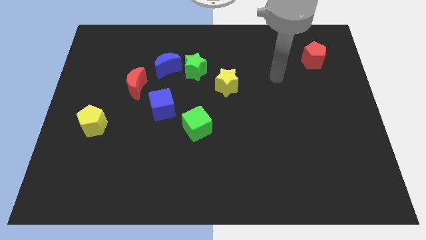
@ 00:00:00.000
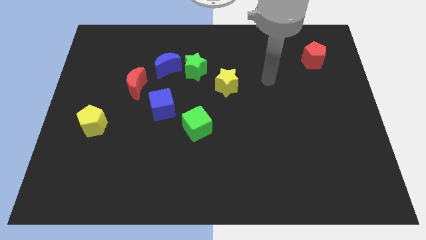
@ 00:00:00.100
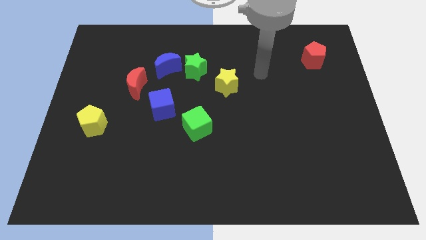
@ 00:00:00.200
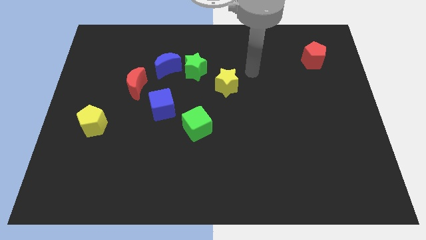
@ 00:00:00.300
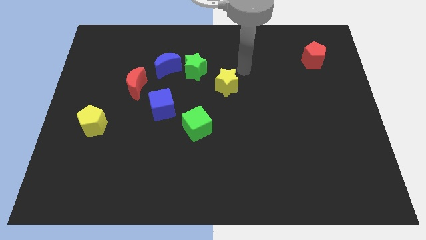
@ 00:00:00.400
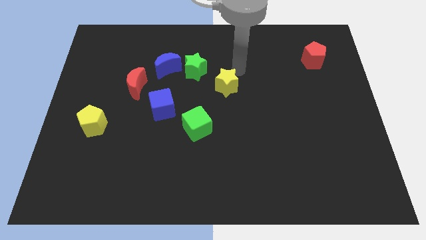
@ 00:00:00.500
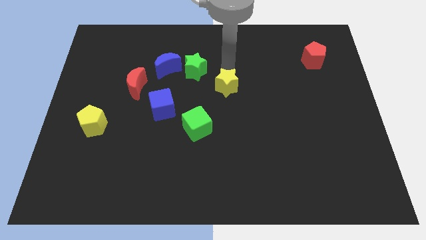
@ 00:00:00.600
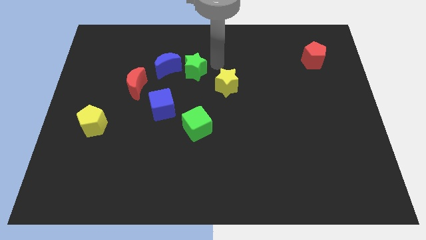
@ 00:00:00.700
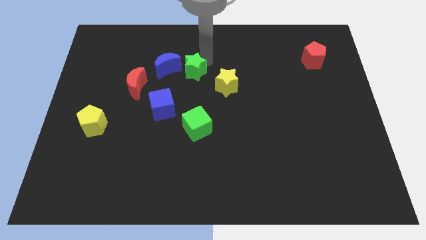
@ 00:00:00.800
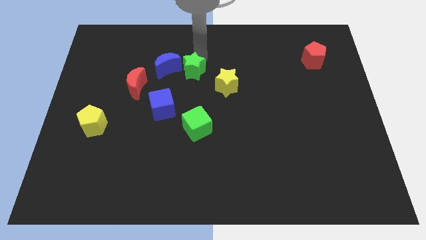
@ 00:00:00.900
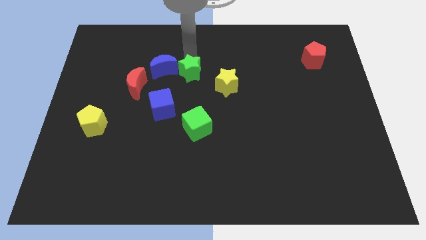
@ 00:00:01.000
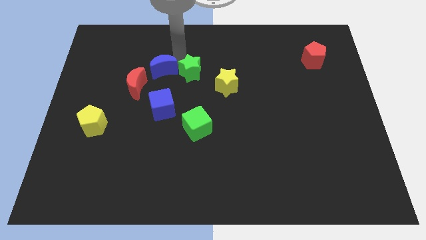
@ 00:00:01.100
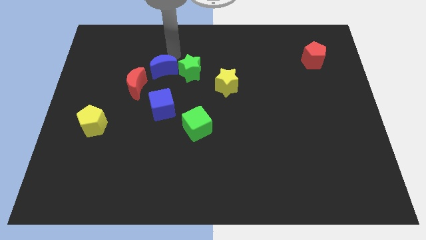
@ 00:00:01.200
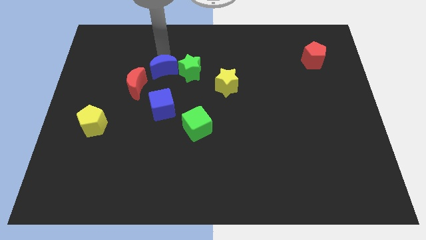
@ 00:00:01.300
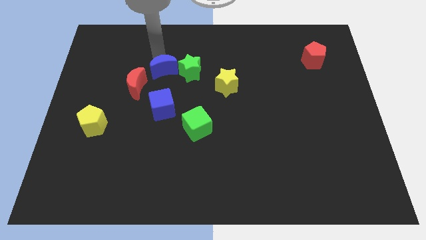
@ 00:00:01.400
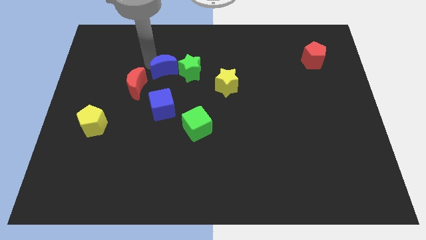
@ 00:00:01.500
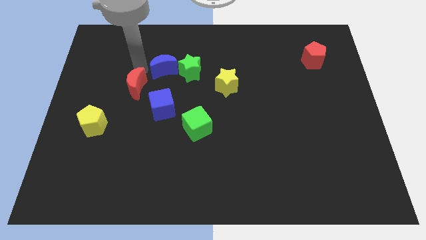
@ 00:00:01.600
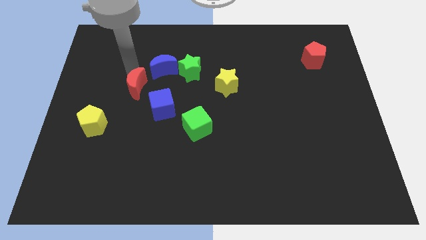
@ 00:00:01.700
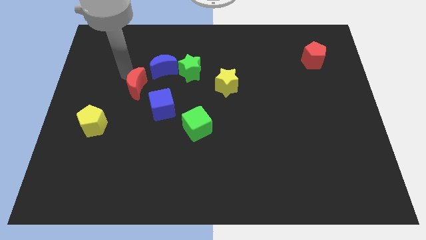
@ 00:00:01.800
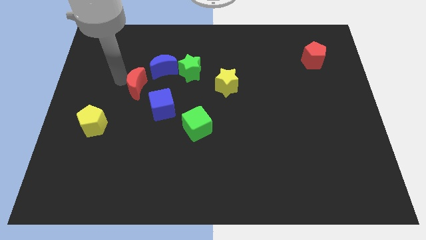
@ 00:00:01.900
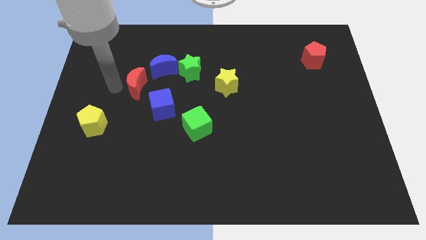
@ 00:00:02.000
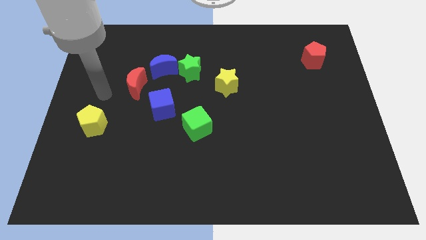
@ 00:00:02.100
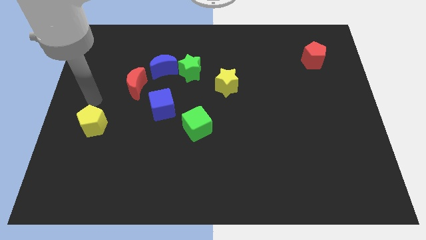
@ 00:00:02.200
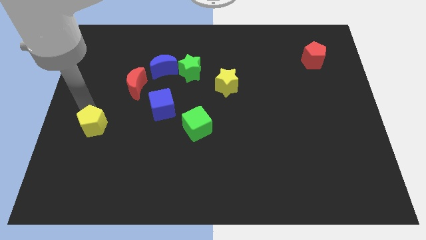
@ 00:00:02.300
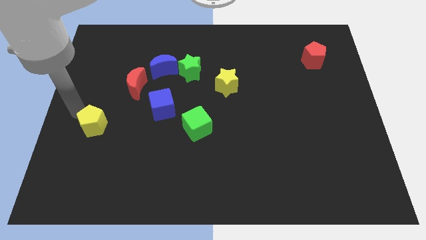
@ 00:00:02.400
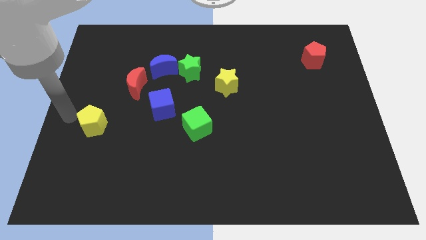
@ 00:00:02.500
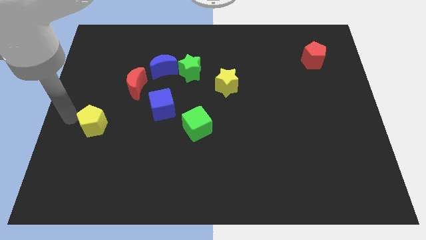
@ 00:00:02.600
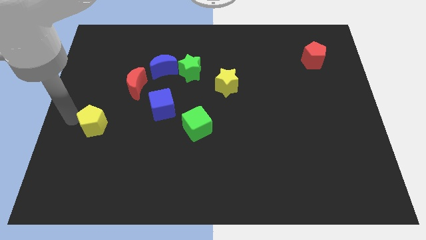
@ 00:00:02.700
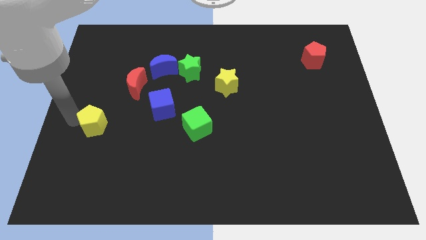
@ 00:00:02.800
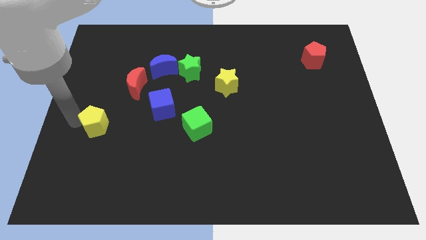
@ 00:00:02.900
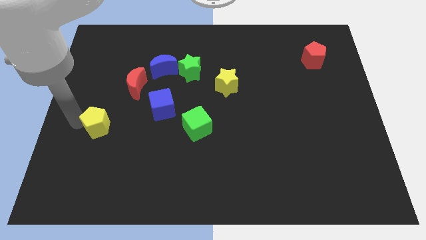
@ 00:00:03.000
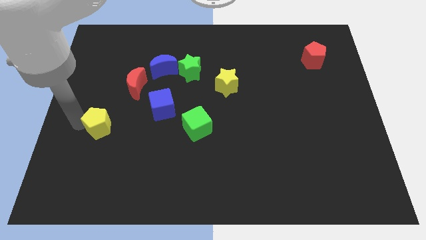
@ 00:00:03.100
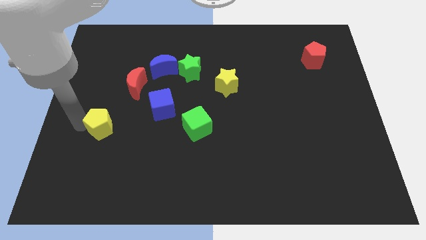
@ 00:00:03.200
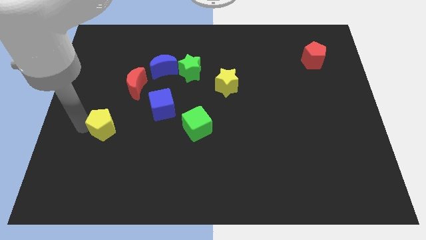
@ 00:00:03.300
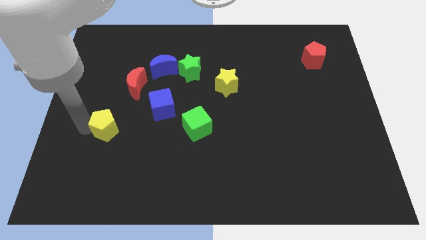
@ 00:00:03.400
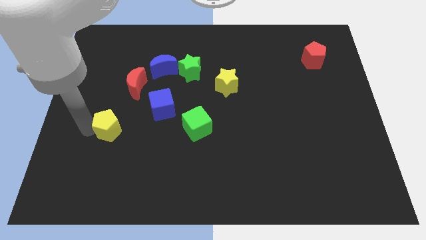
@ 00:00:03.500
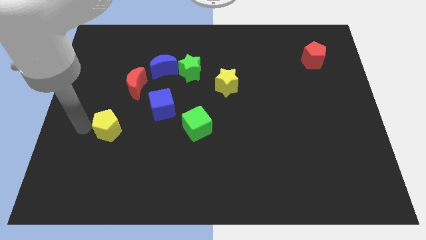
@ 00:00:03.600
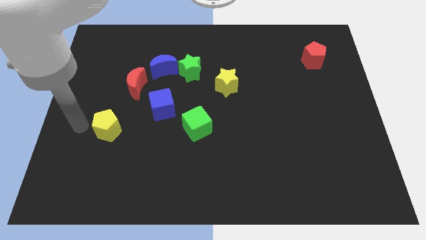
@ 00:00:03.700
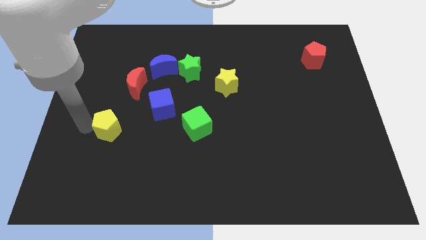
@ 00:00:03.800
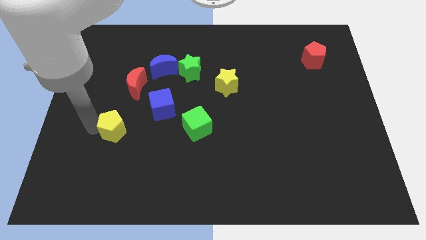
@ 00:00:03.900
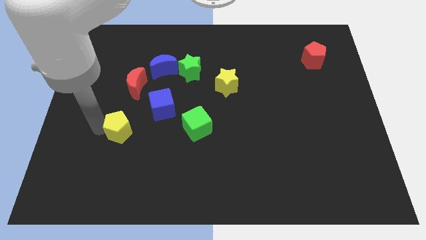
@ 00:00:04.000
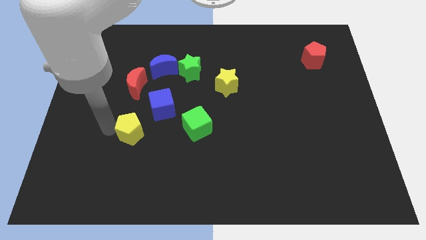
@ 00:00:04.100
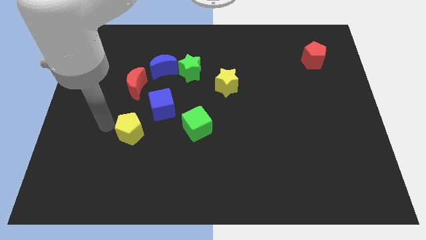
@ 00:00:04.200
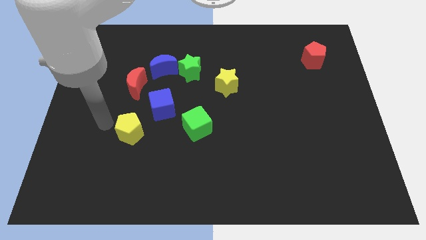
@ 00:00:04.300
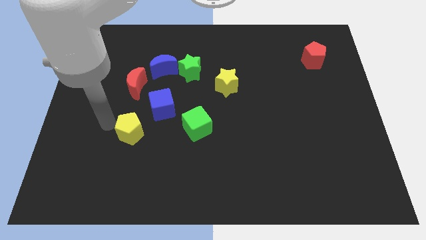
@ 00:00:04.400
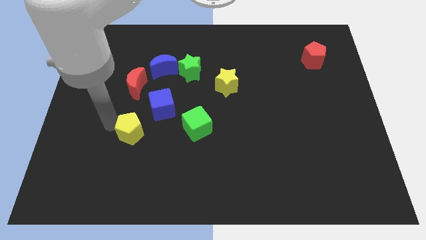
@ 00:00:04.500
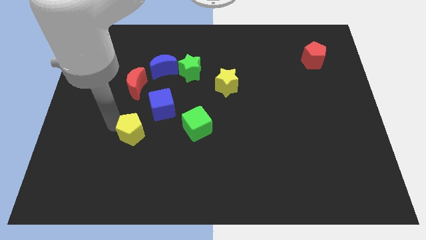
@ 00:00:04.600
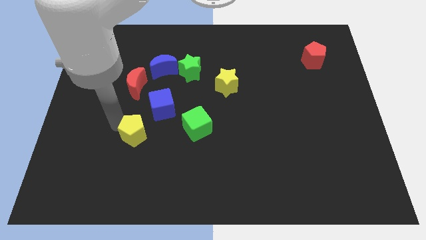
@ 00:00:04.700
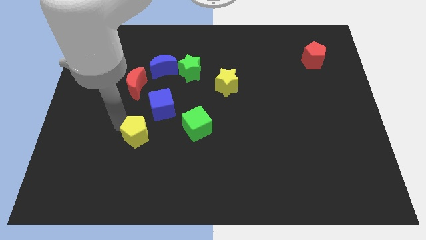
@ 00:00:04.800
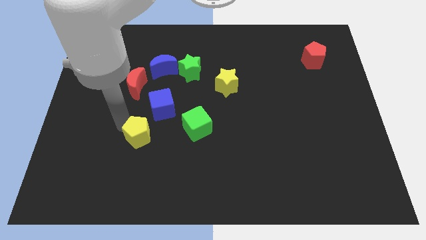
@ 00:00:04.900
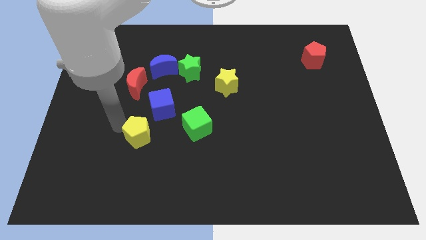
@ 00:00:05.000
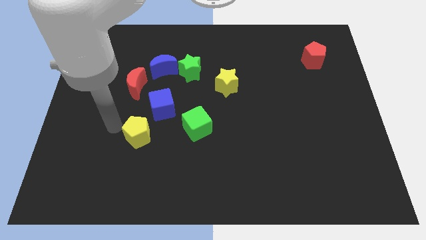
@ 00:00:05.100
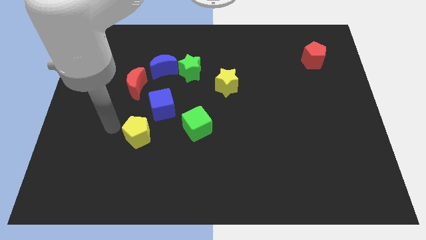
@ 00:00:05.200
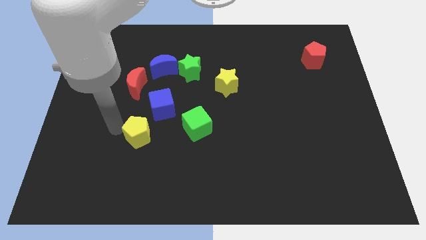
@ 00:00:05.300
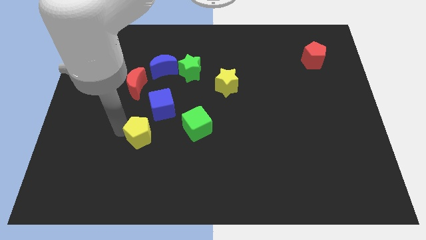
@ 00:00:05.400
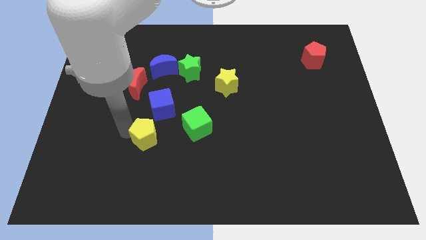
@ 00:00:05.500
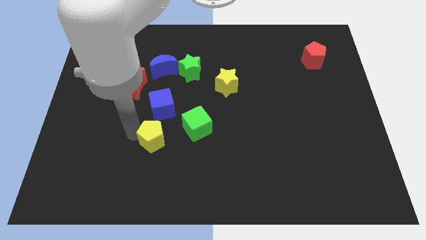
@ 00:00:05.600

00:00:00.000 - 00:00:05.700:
move the yellow pentagon diagonally down and to the left of the green cube

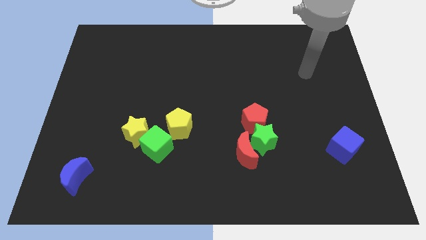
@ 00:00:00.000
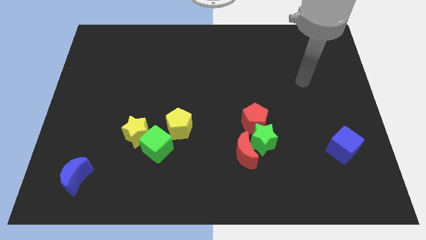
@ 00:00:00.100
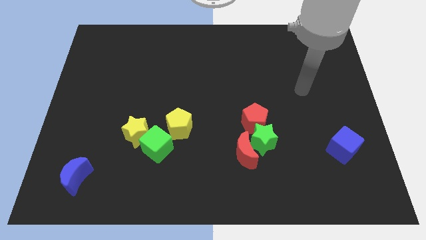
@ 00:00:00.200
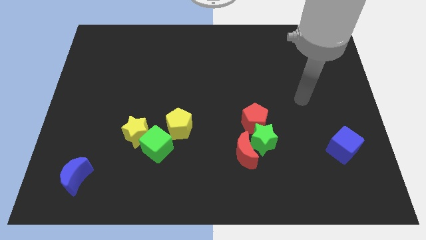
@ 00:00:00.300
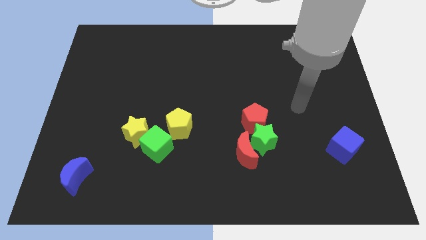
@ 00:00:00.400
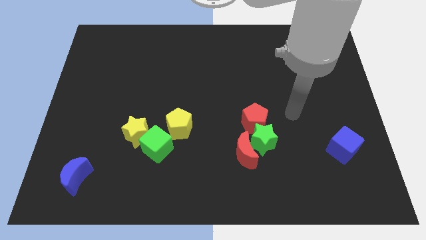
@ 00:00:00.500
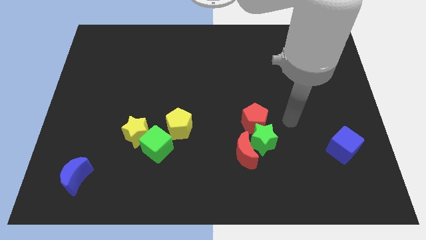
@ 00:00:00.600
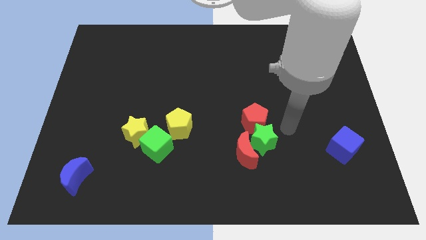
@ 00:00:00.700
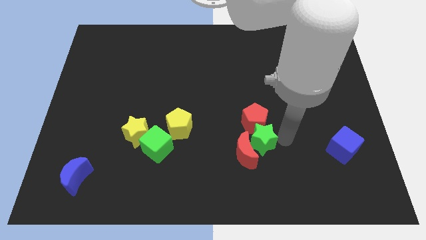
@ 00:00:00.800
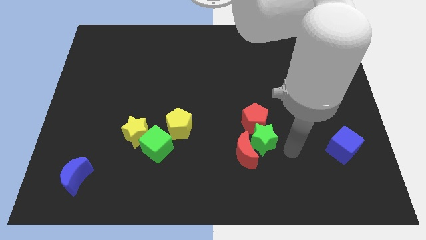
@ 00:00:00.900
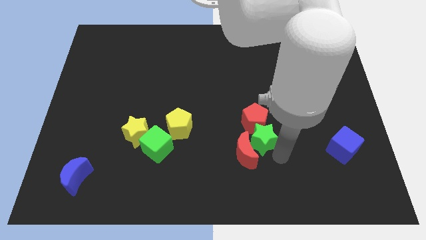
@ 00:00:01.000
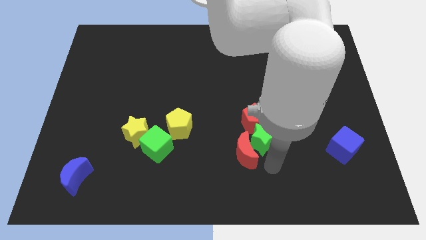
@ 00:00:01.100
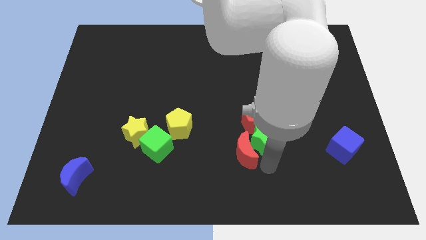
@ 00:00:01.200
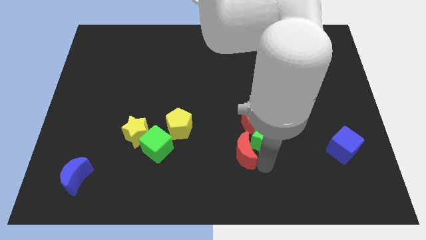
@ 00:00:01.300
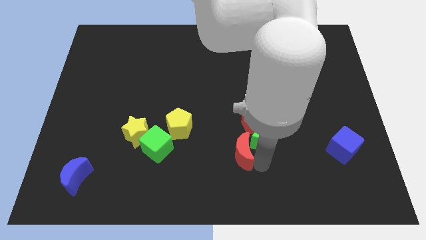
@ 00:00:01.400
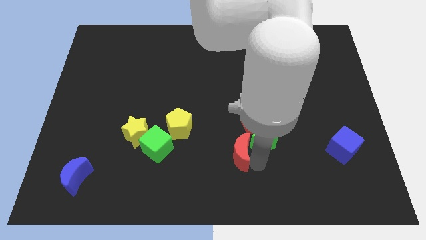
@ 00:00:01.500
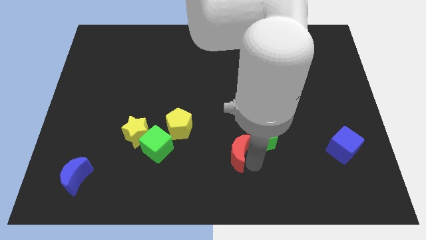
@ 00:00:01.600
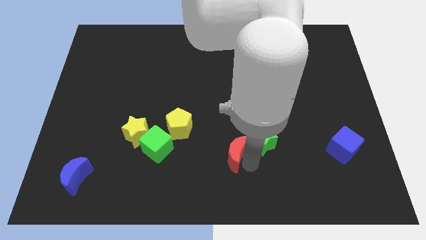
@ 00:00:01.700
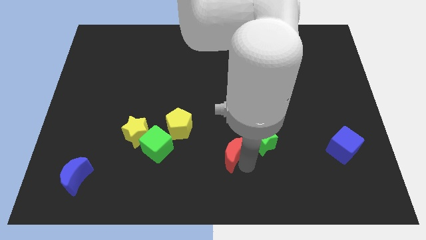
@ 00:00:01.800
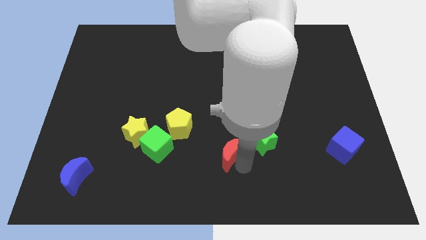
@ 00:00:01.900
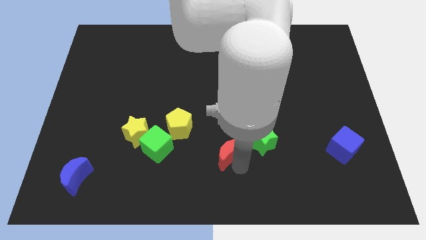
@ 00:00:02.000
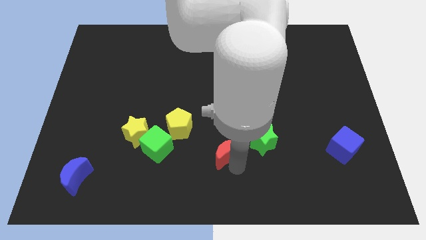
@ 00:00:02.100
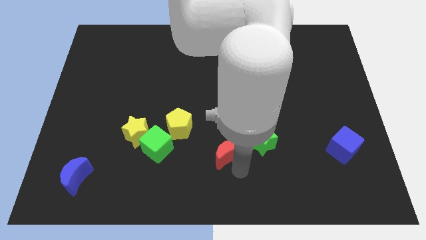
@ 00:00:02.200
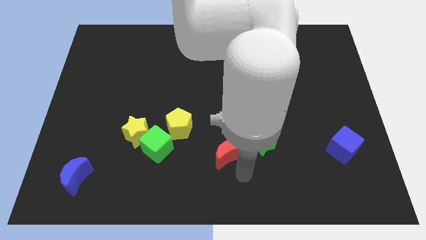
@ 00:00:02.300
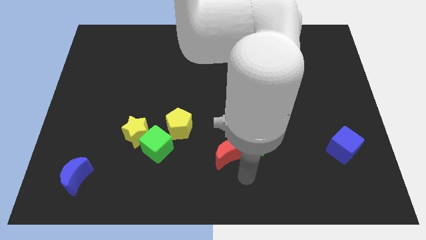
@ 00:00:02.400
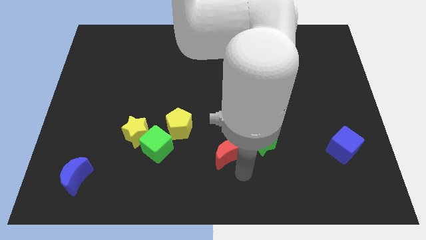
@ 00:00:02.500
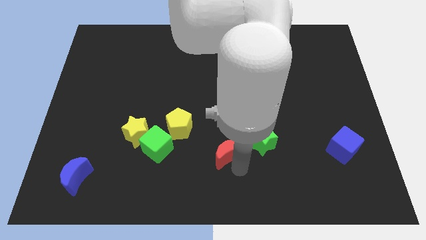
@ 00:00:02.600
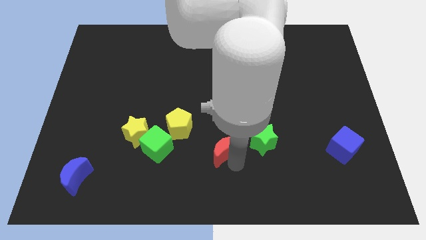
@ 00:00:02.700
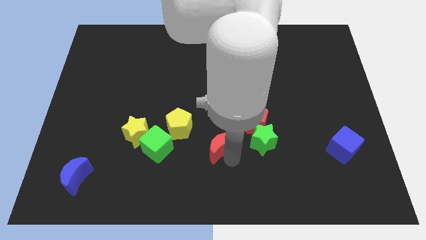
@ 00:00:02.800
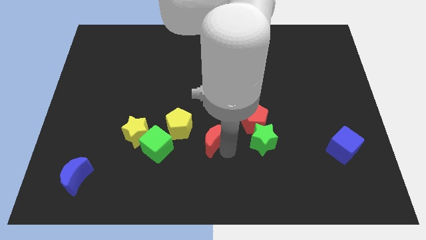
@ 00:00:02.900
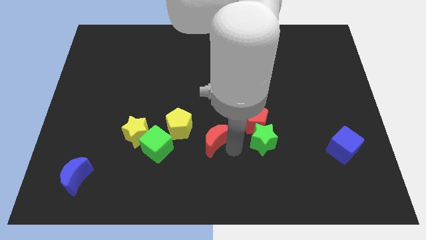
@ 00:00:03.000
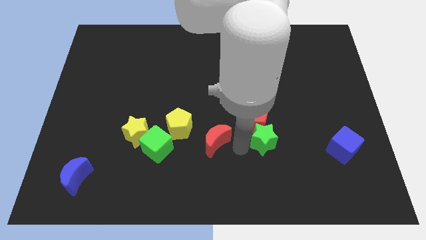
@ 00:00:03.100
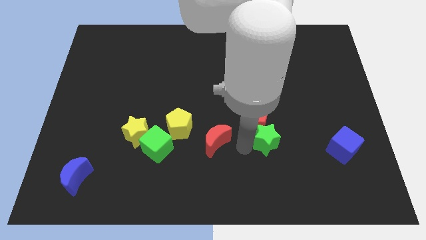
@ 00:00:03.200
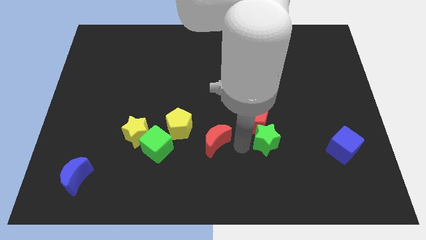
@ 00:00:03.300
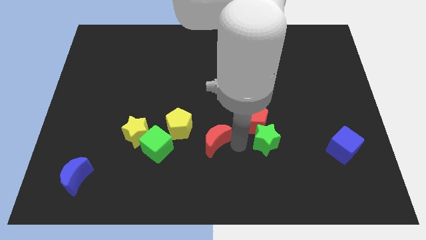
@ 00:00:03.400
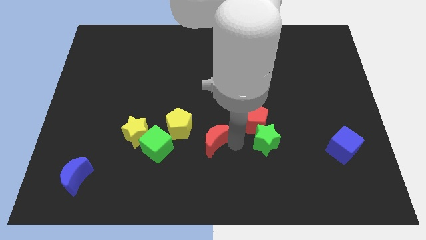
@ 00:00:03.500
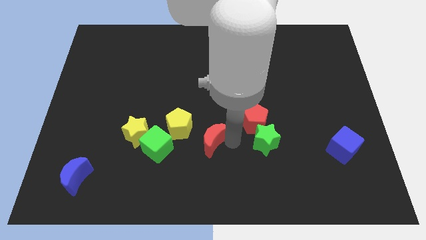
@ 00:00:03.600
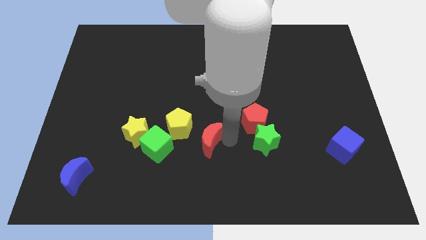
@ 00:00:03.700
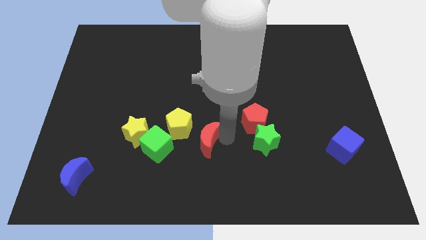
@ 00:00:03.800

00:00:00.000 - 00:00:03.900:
move the red moon right of the yellow star
